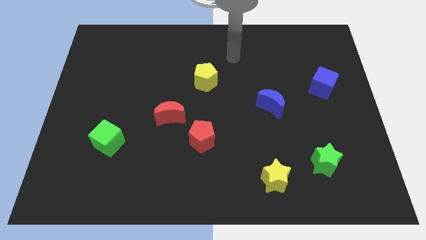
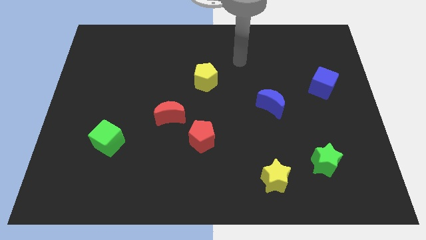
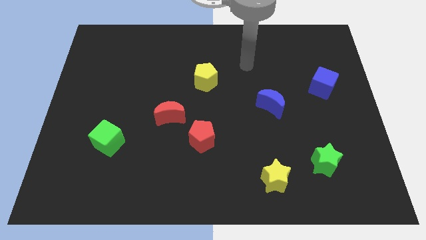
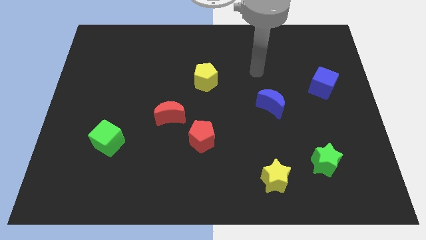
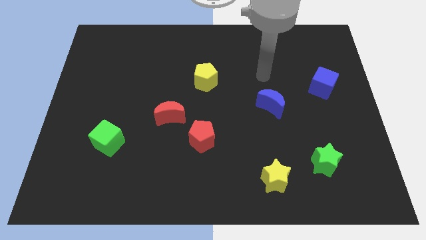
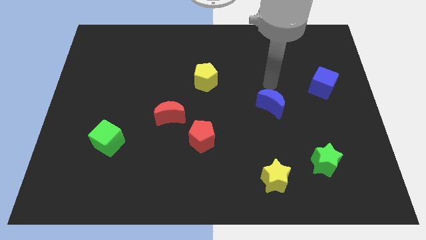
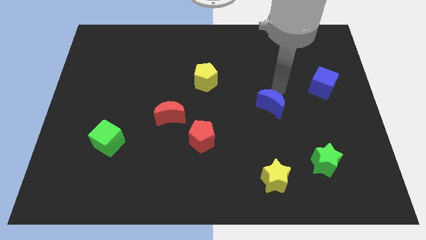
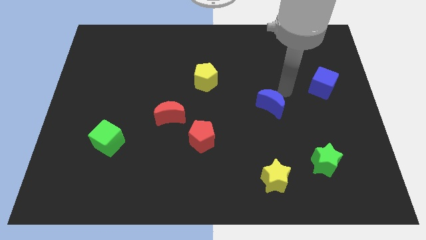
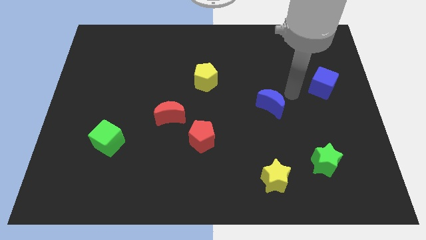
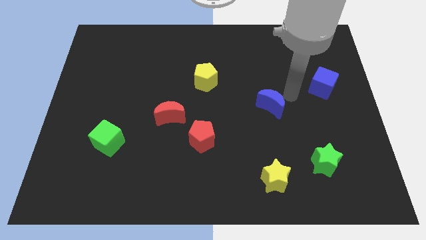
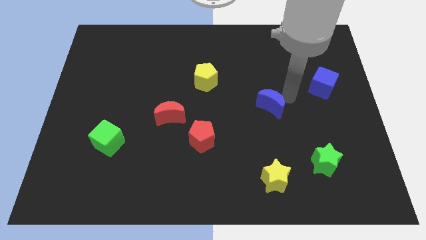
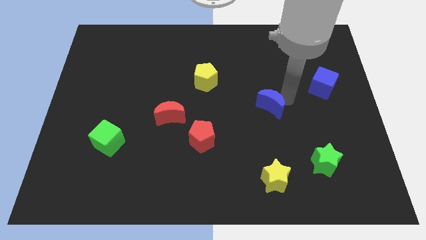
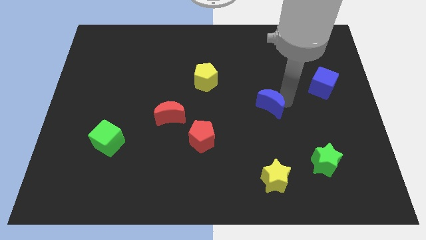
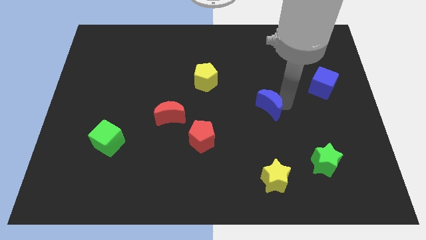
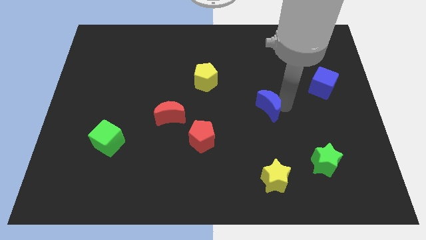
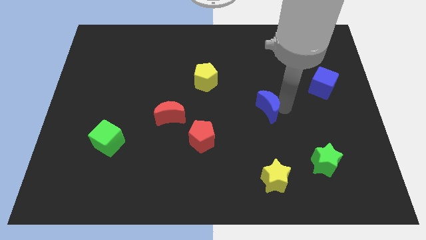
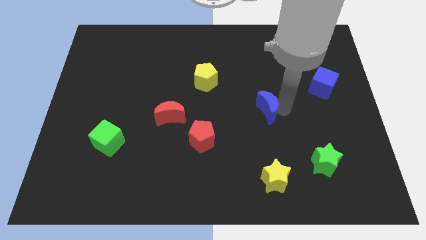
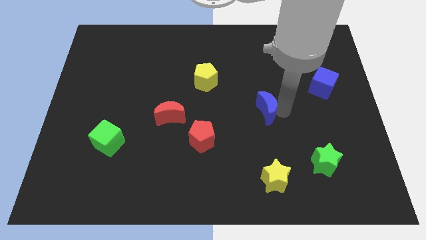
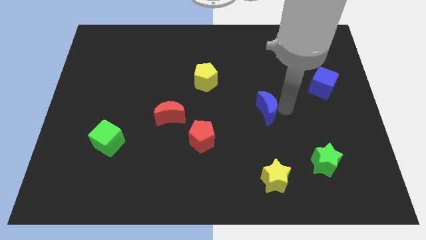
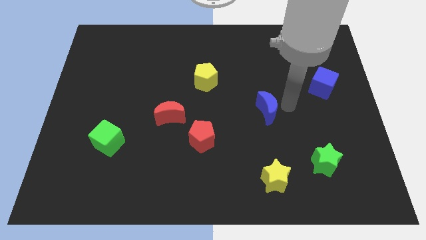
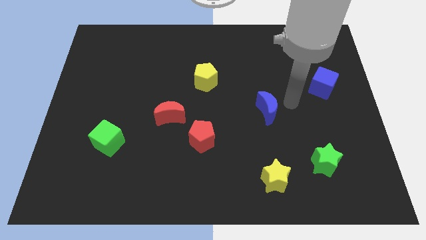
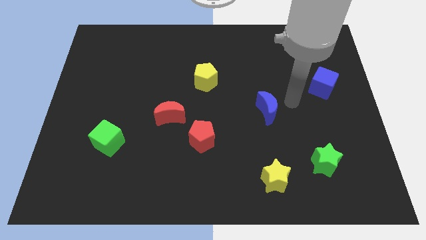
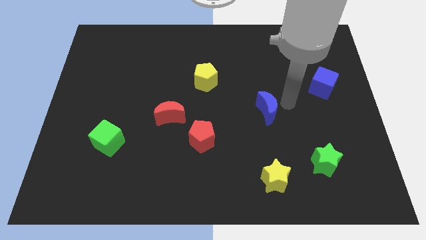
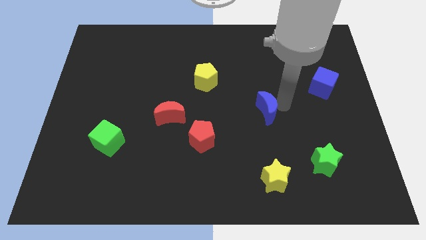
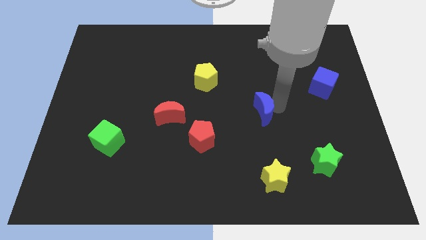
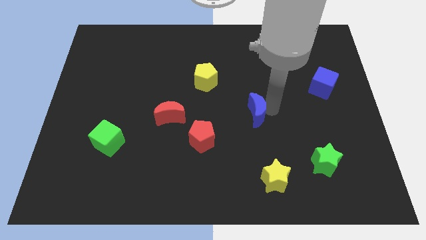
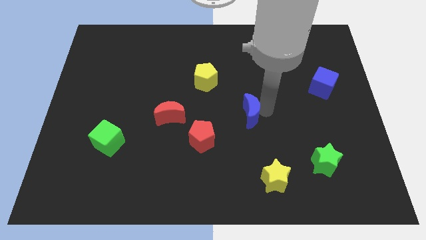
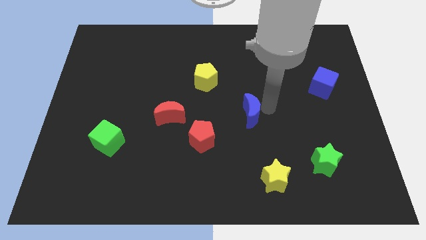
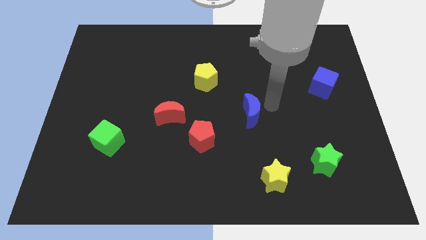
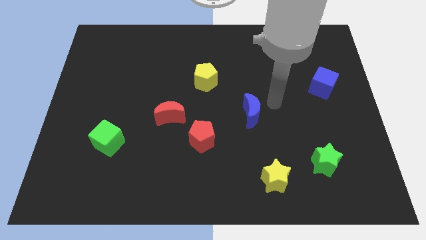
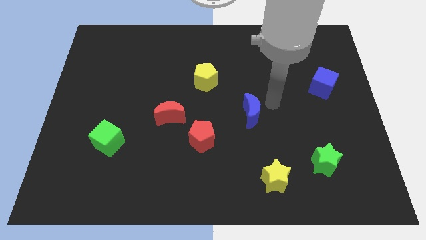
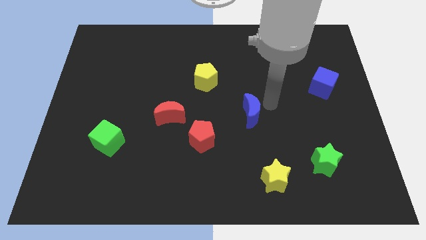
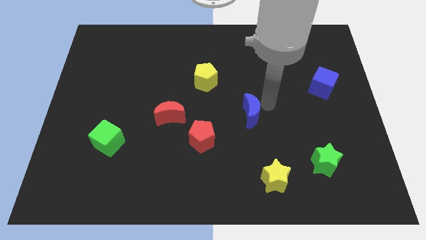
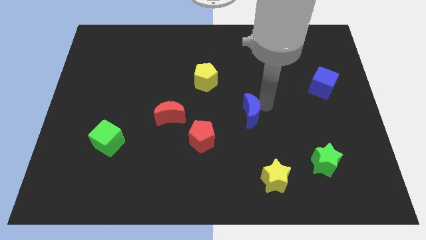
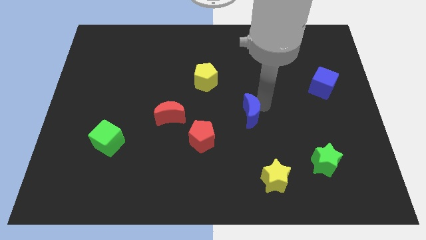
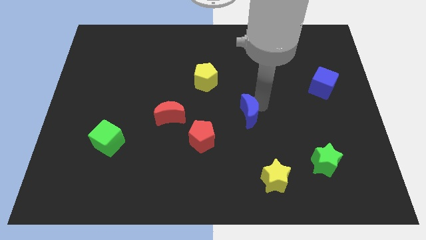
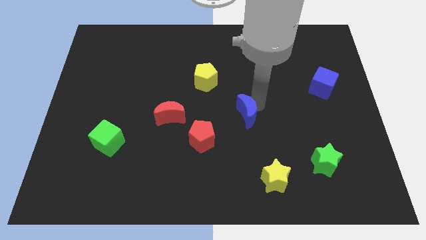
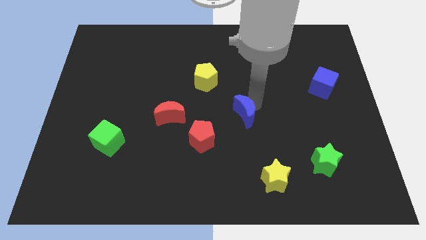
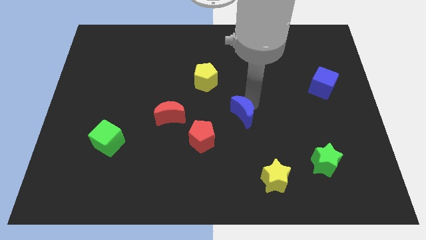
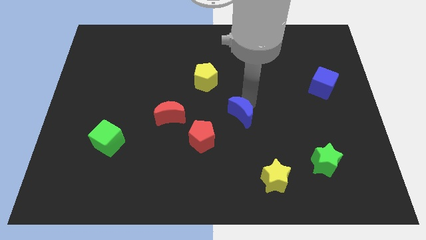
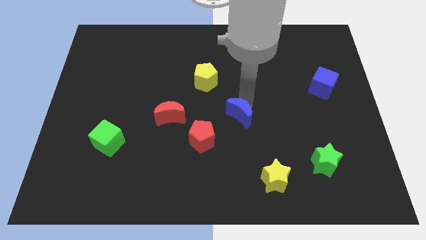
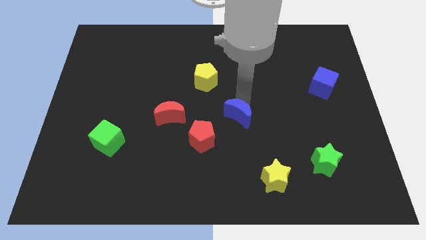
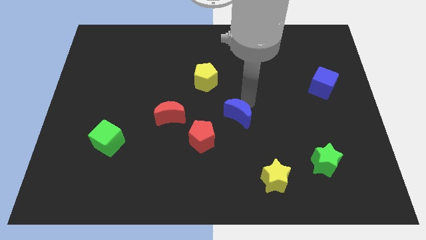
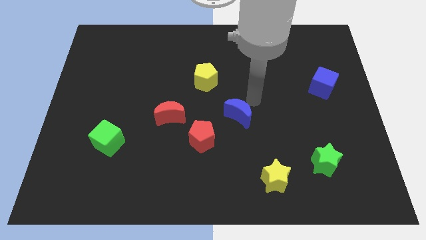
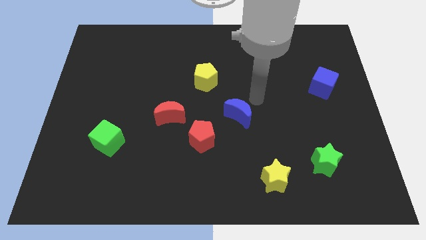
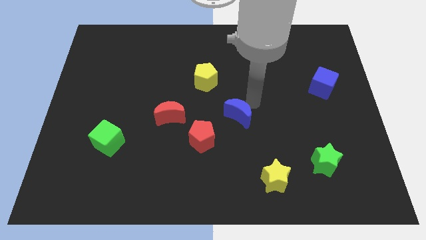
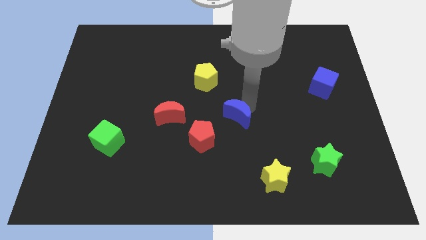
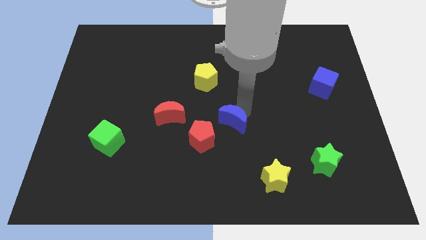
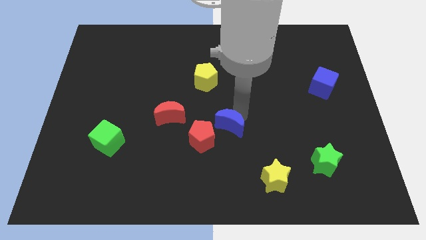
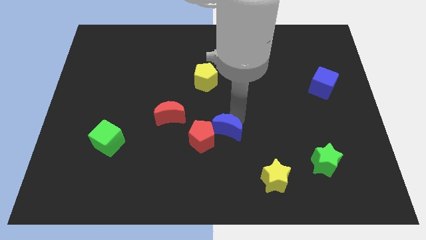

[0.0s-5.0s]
put the blue moon close to the red pentagon

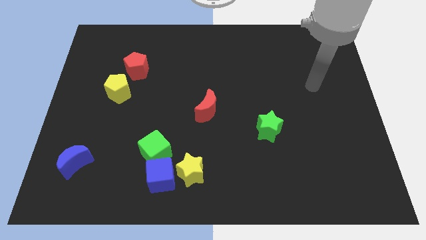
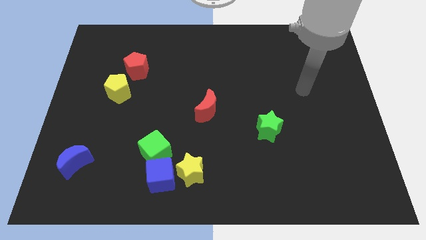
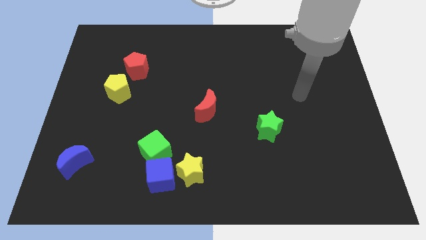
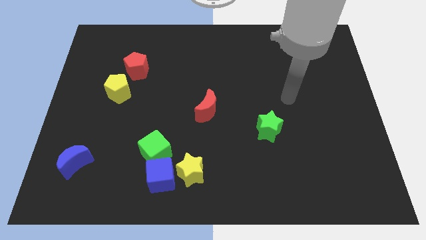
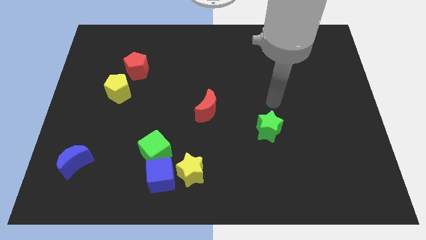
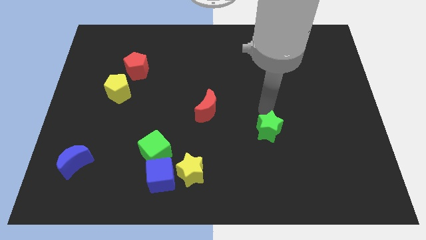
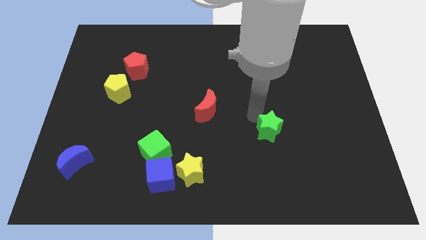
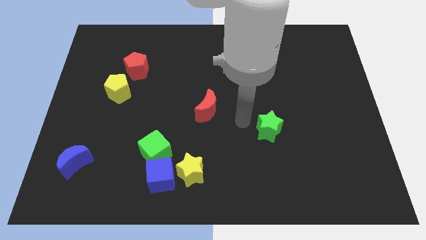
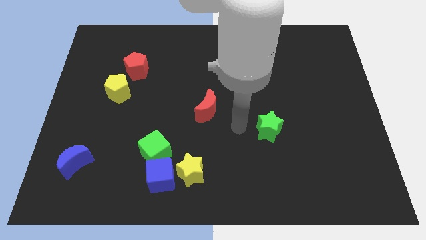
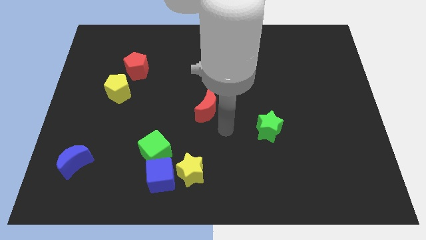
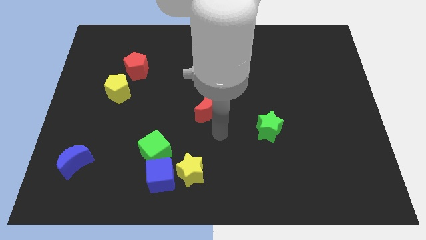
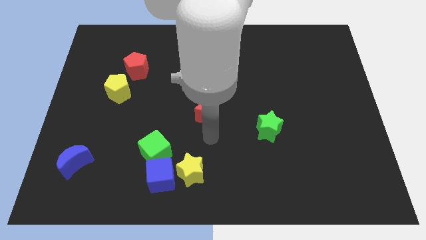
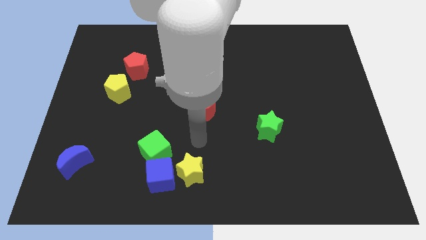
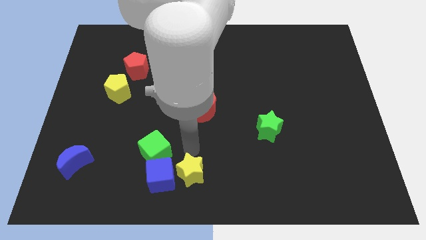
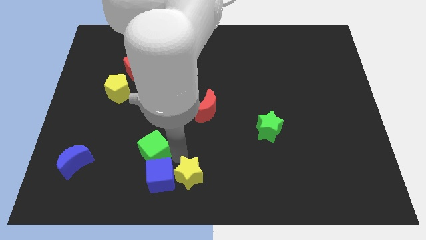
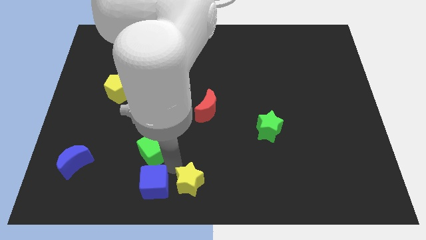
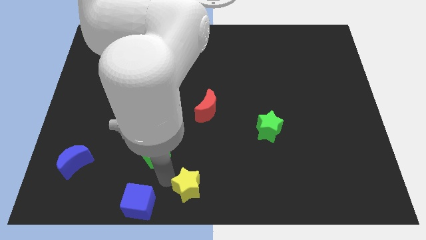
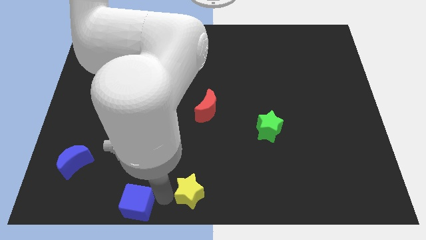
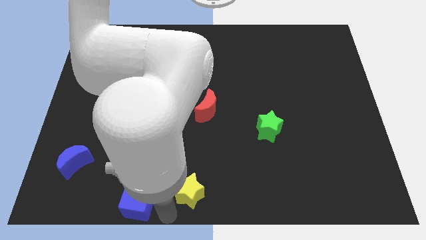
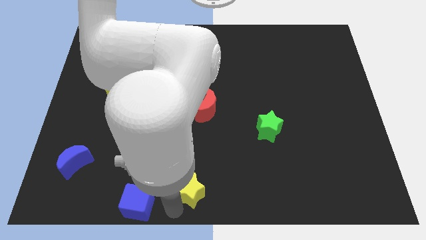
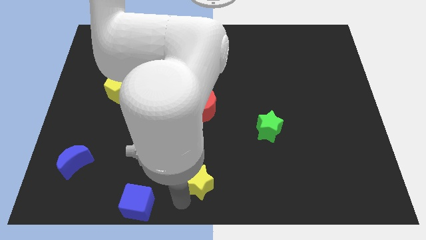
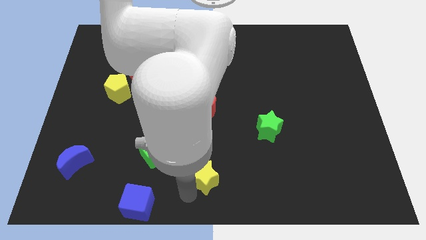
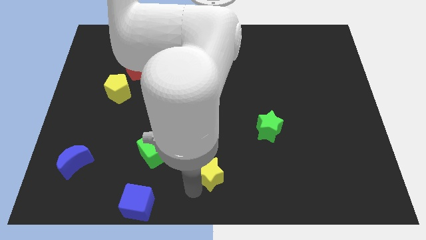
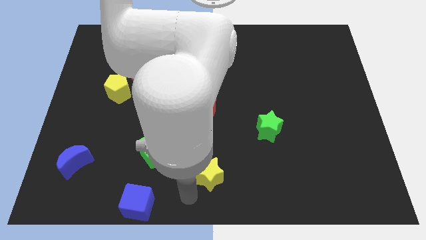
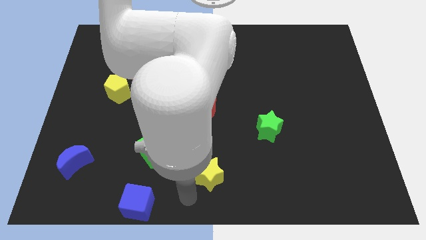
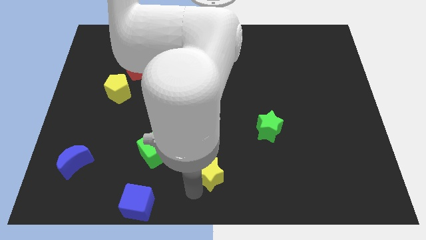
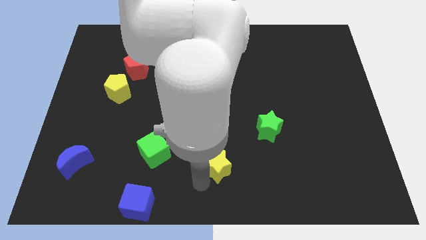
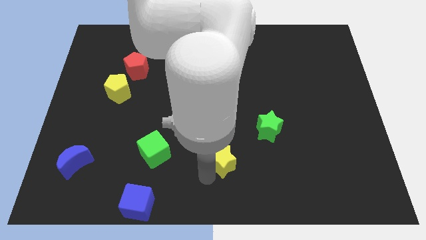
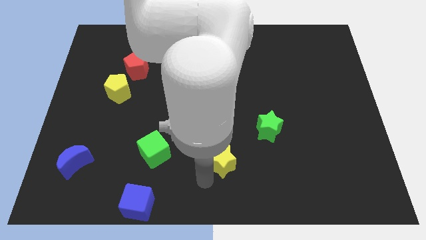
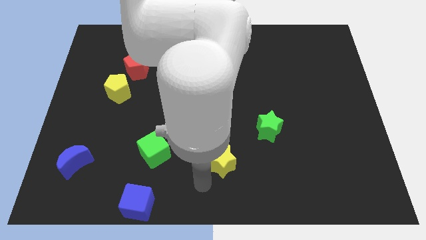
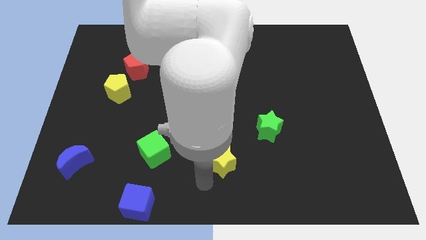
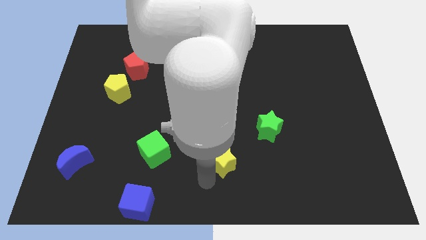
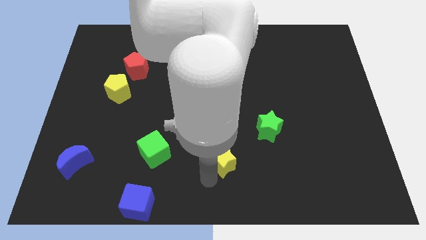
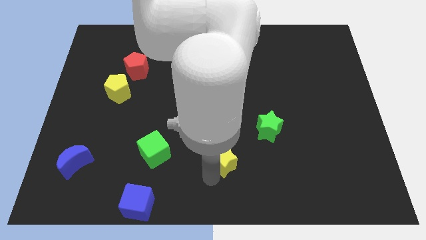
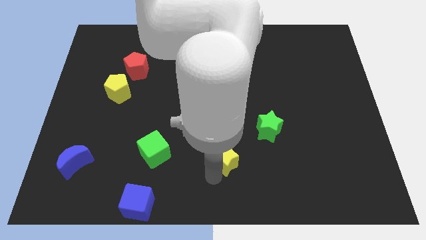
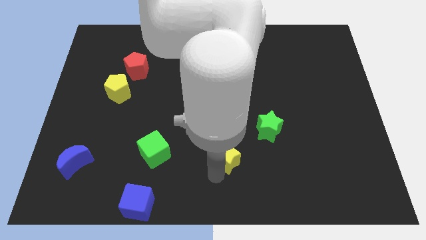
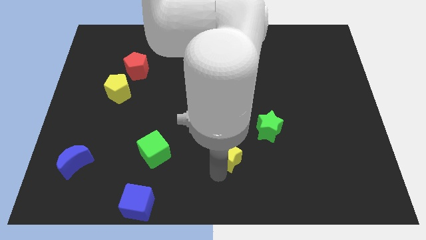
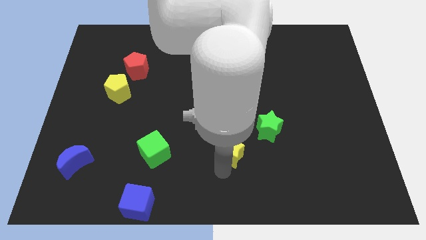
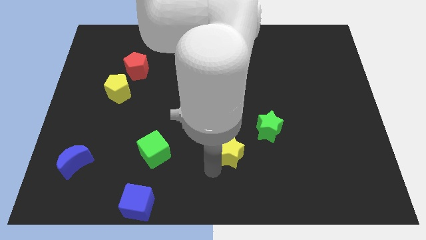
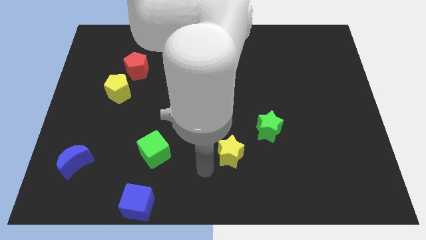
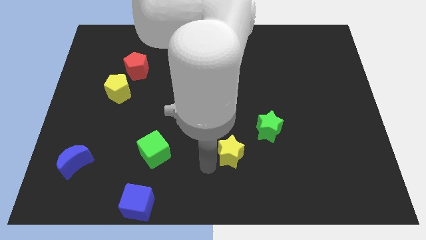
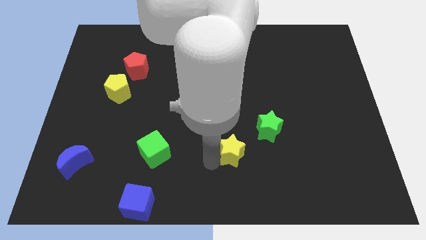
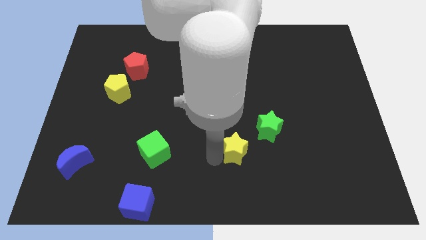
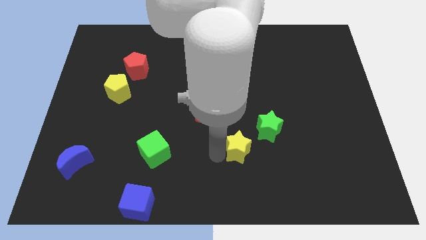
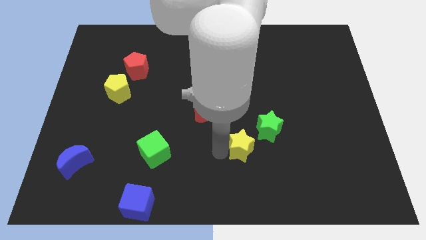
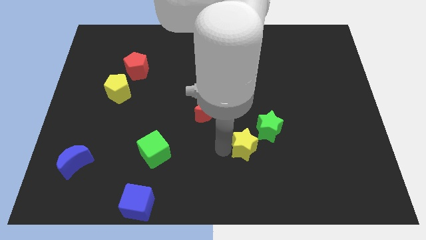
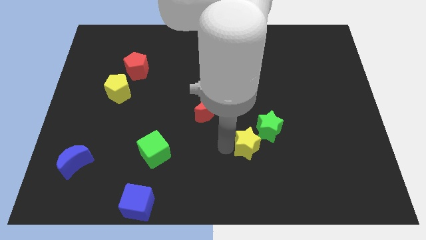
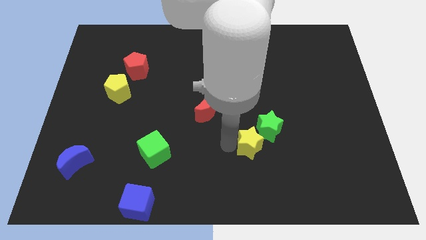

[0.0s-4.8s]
move the yellow star towards the green star
